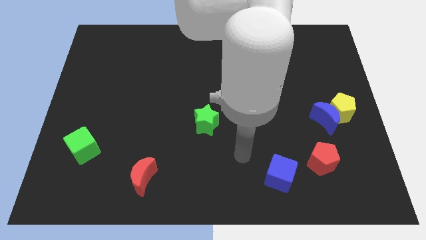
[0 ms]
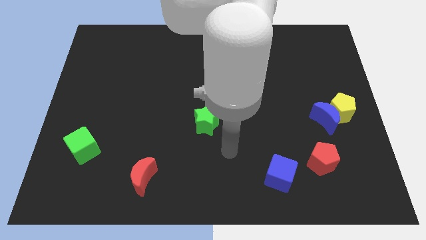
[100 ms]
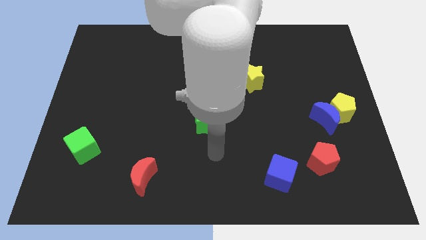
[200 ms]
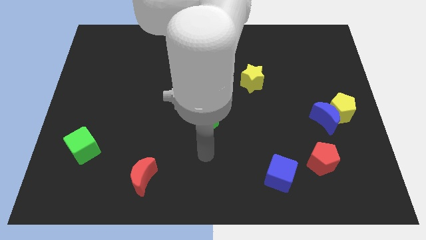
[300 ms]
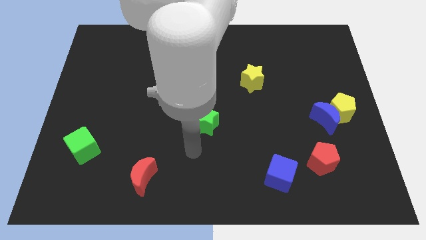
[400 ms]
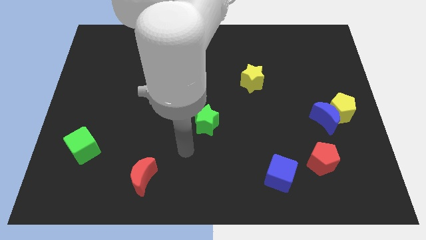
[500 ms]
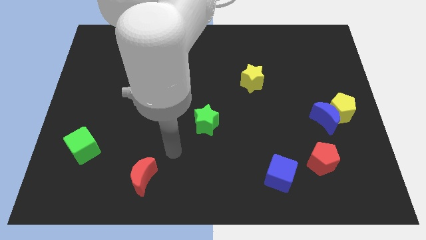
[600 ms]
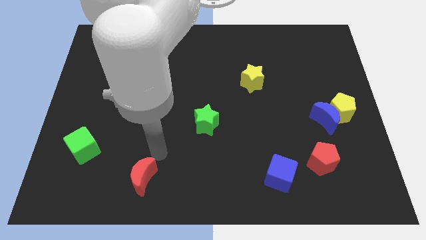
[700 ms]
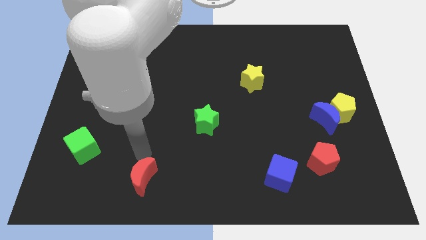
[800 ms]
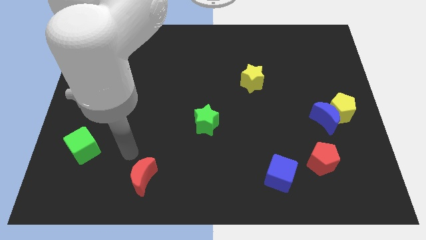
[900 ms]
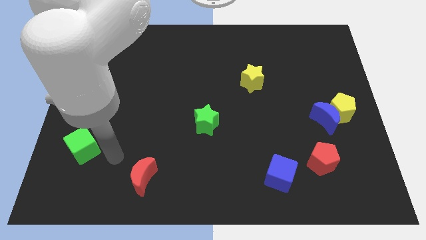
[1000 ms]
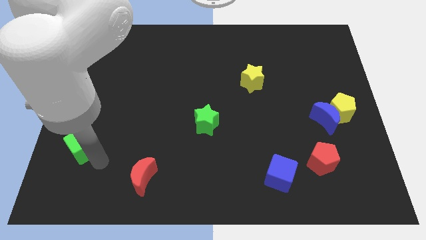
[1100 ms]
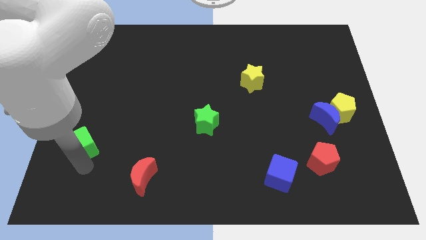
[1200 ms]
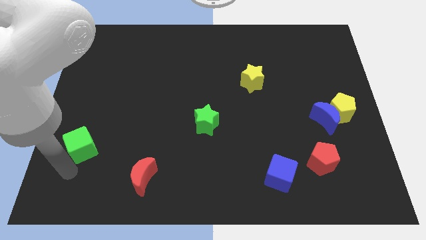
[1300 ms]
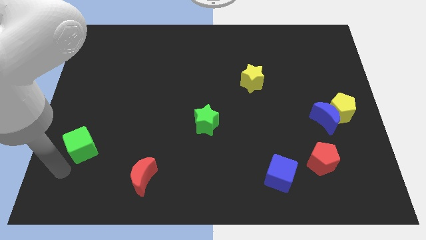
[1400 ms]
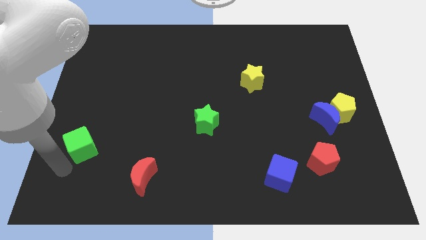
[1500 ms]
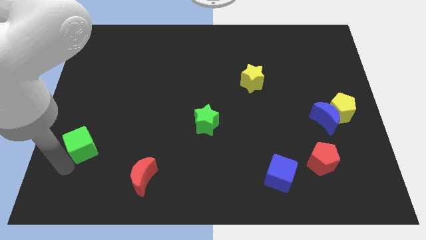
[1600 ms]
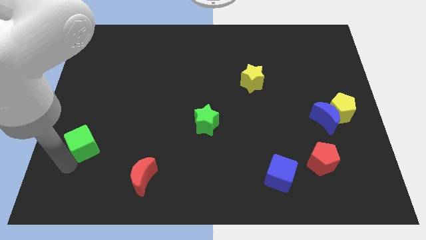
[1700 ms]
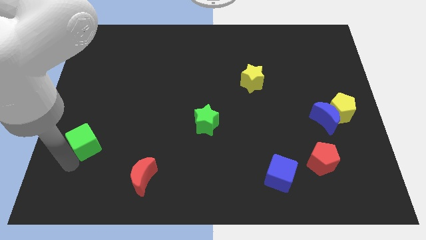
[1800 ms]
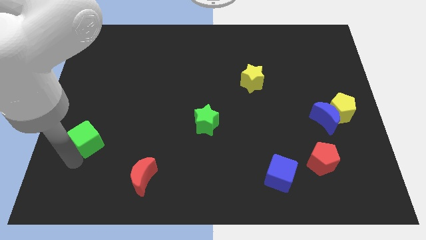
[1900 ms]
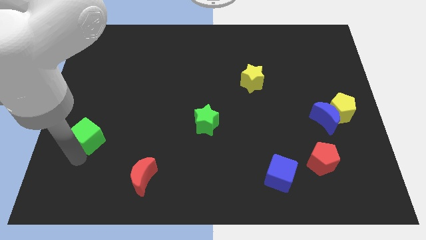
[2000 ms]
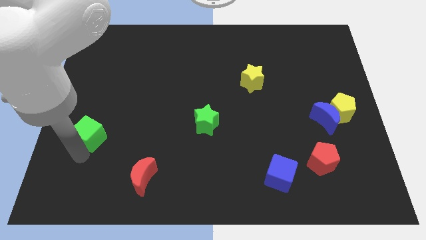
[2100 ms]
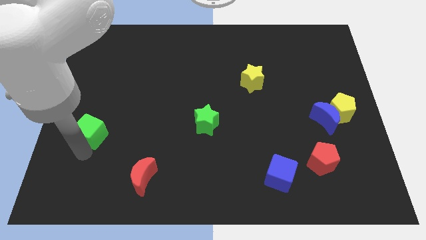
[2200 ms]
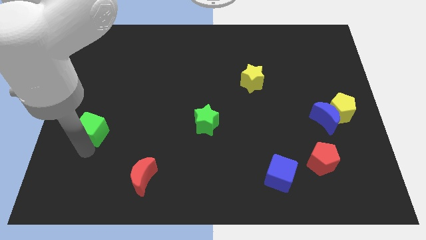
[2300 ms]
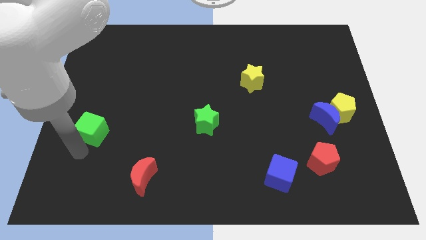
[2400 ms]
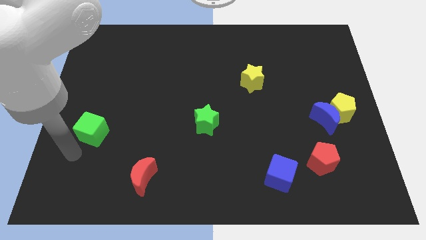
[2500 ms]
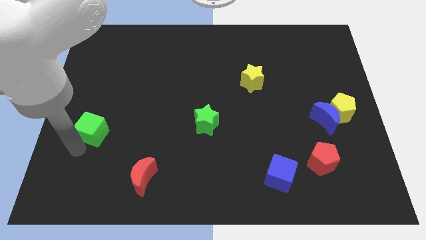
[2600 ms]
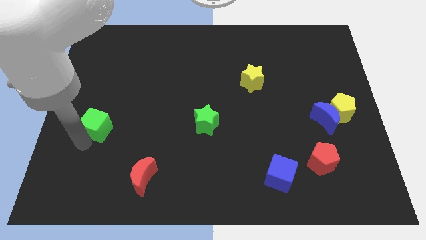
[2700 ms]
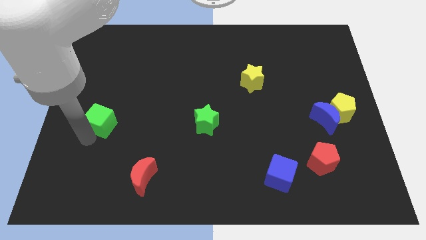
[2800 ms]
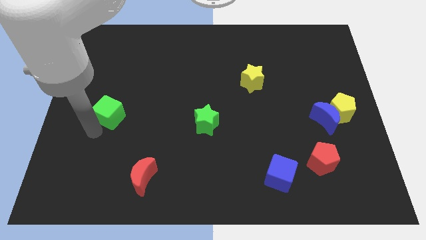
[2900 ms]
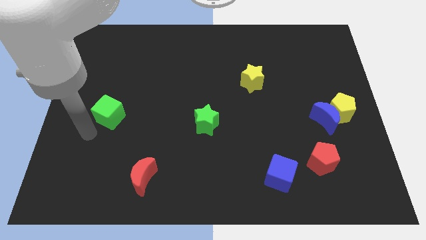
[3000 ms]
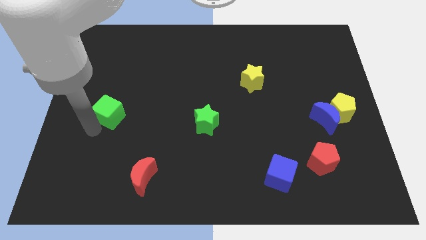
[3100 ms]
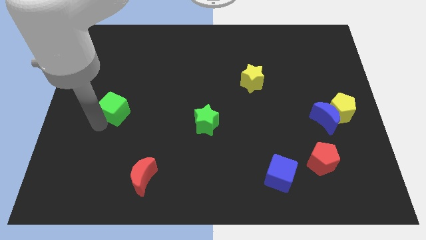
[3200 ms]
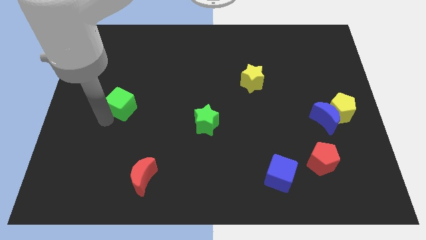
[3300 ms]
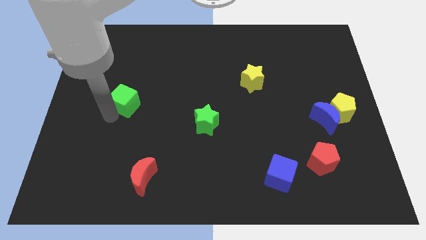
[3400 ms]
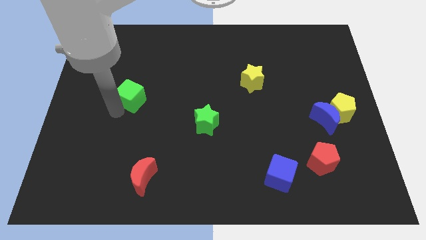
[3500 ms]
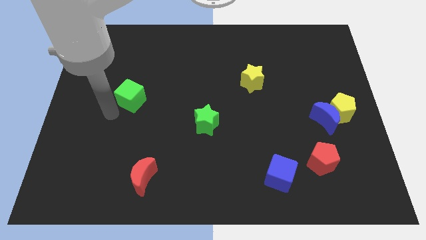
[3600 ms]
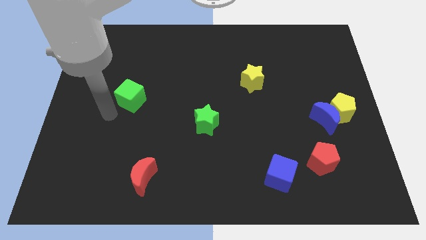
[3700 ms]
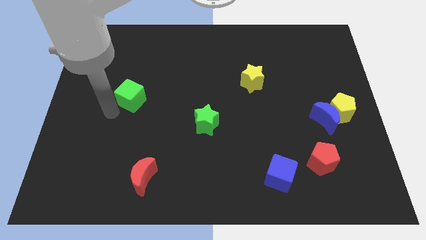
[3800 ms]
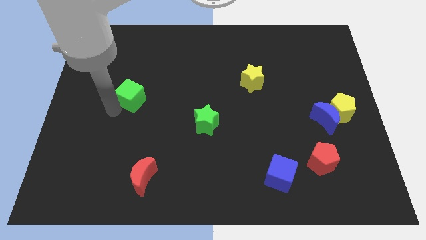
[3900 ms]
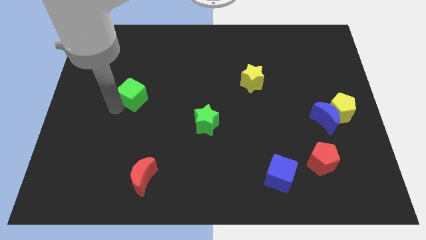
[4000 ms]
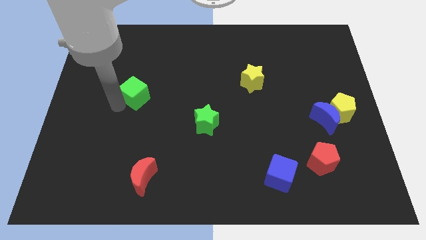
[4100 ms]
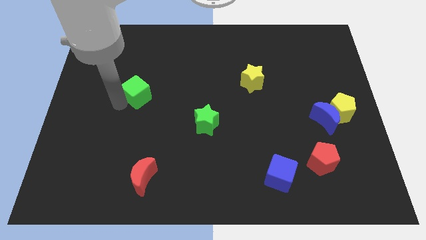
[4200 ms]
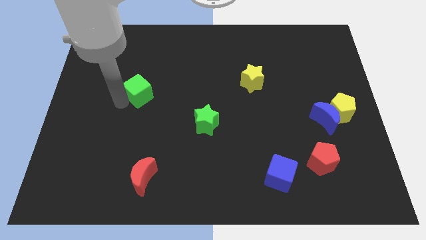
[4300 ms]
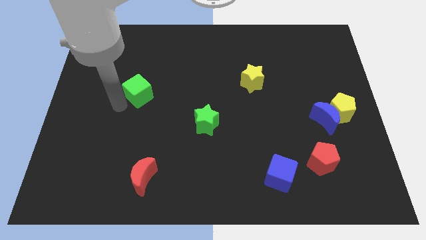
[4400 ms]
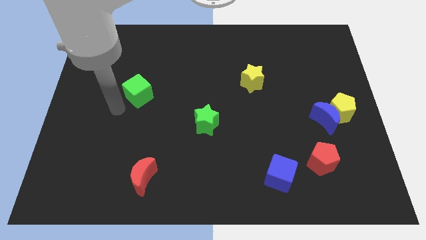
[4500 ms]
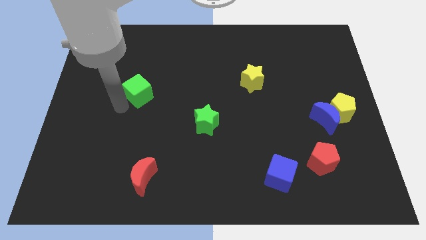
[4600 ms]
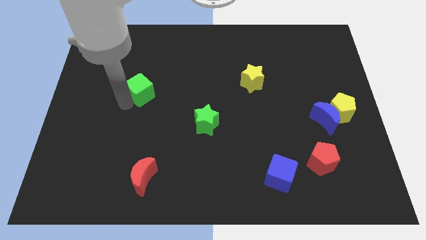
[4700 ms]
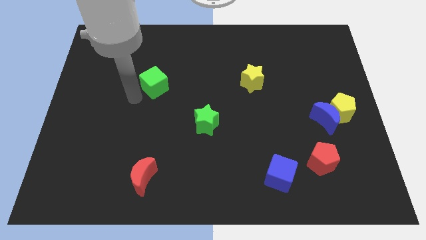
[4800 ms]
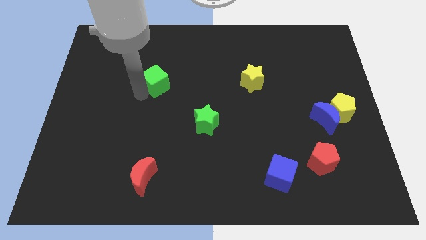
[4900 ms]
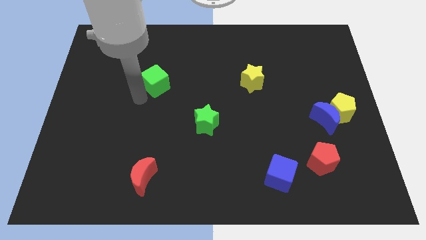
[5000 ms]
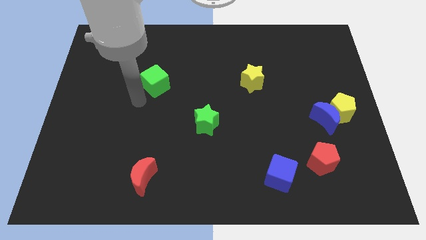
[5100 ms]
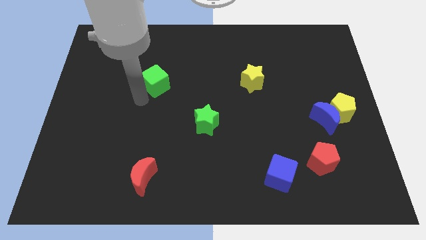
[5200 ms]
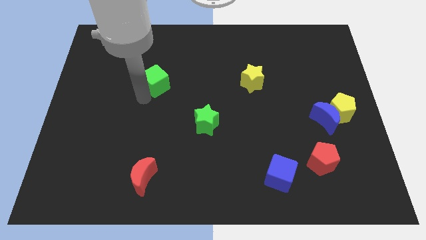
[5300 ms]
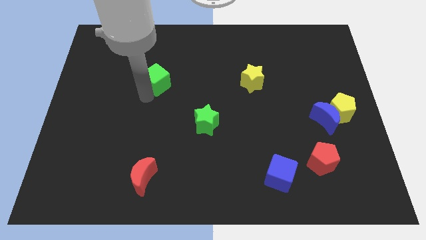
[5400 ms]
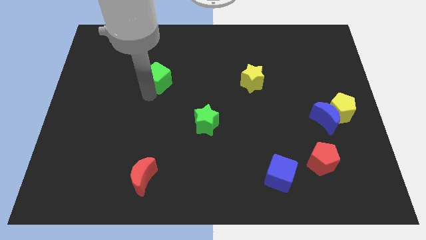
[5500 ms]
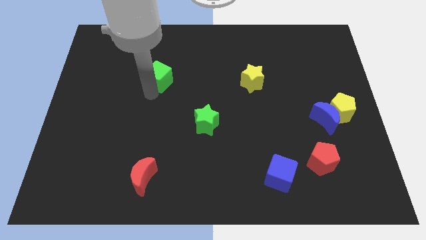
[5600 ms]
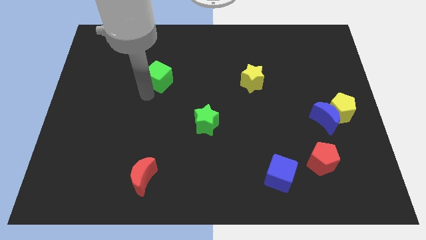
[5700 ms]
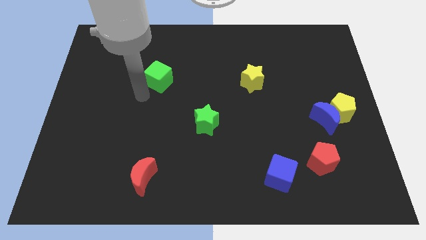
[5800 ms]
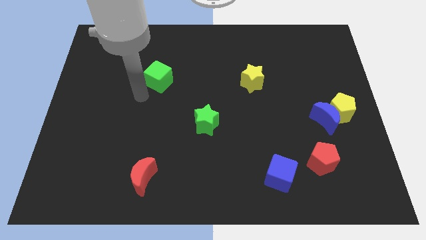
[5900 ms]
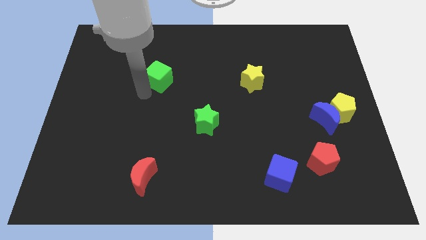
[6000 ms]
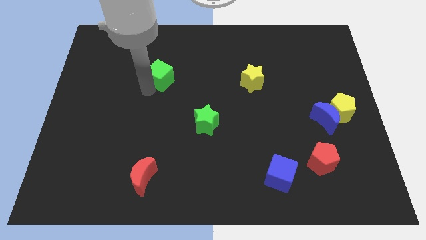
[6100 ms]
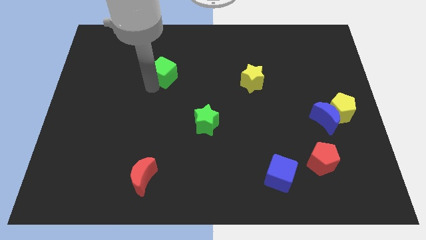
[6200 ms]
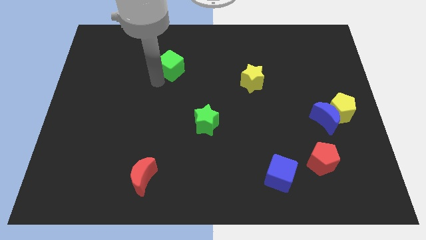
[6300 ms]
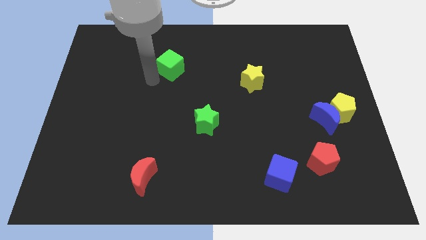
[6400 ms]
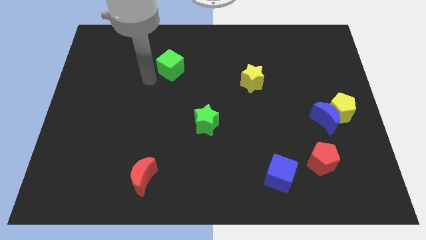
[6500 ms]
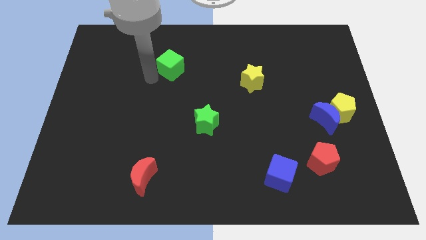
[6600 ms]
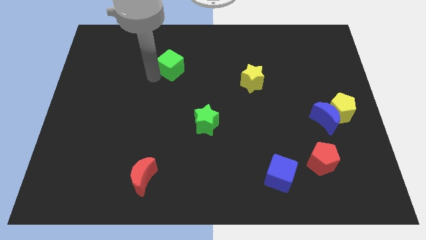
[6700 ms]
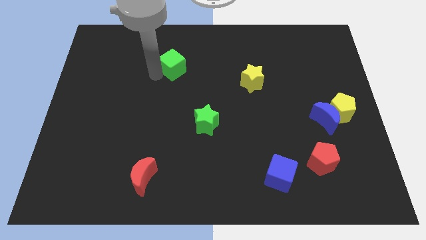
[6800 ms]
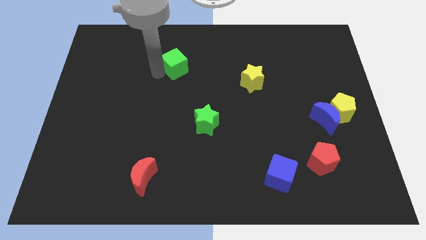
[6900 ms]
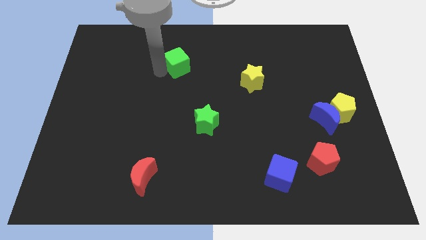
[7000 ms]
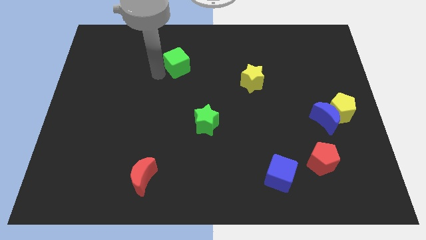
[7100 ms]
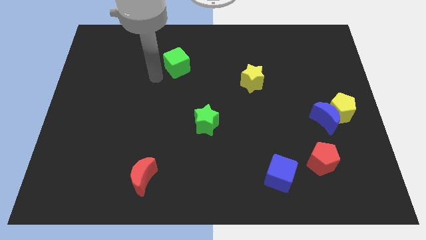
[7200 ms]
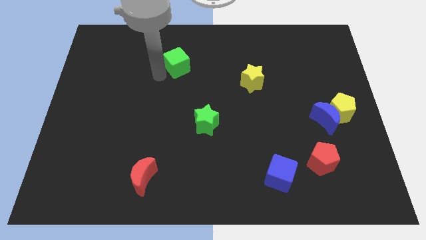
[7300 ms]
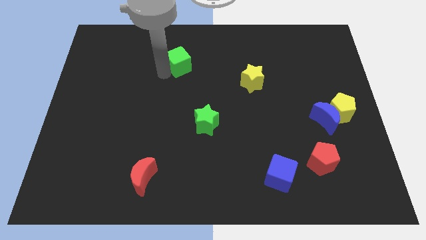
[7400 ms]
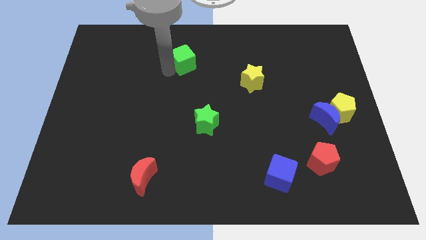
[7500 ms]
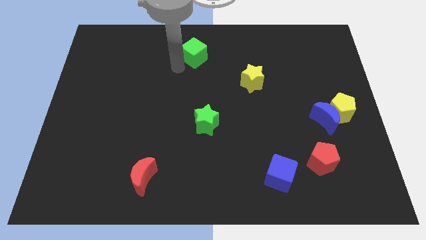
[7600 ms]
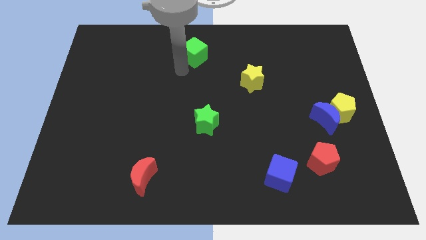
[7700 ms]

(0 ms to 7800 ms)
move the green cube to the top
